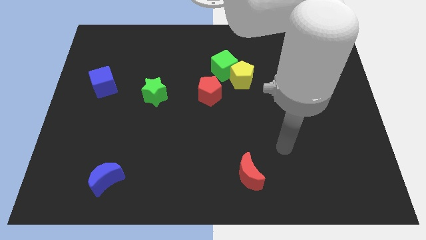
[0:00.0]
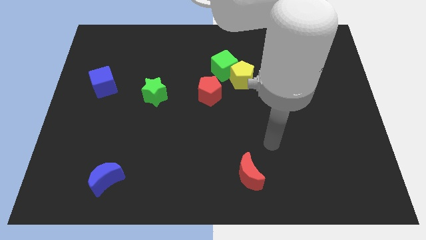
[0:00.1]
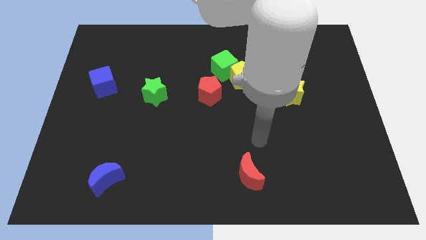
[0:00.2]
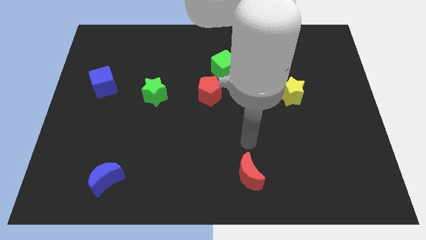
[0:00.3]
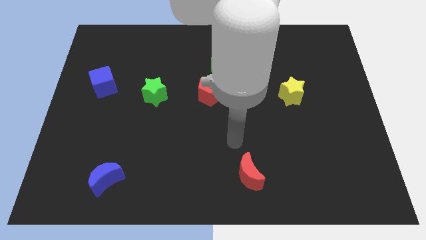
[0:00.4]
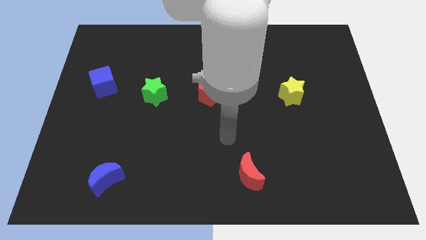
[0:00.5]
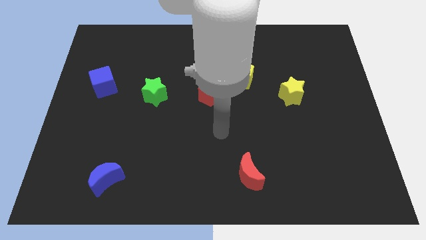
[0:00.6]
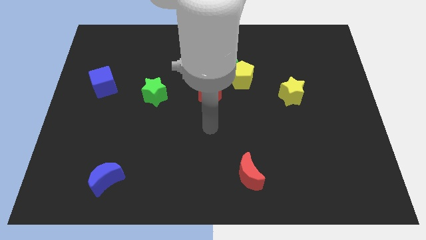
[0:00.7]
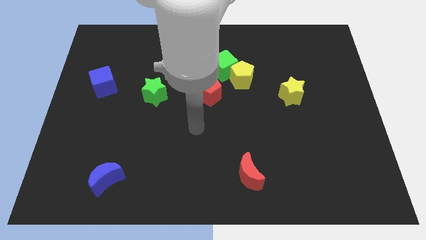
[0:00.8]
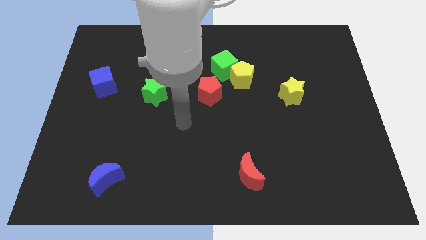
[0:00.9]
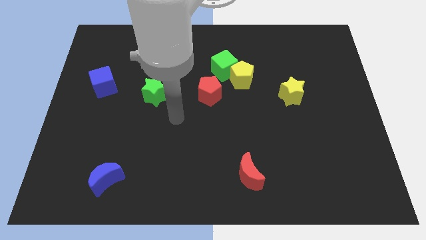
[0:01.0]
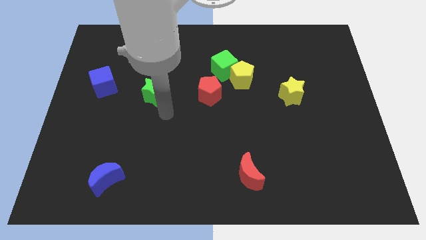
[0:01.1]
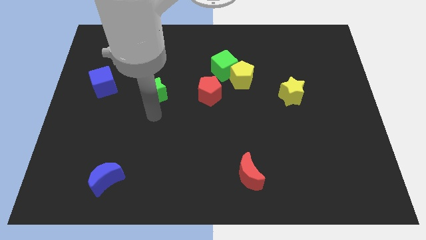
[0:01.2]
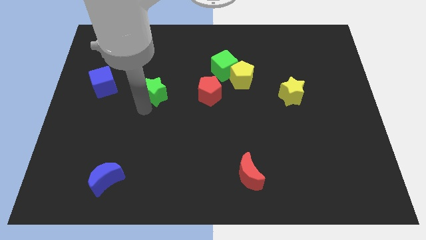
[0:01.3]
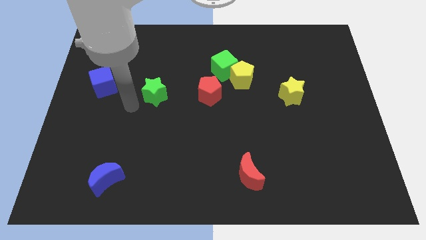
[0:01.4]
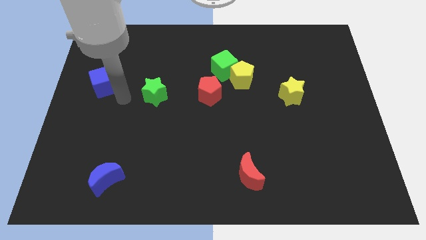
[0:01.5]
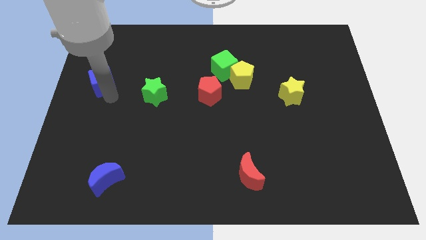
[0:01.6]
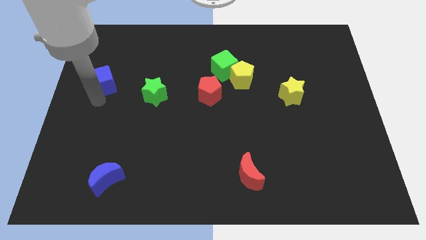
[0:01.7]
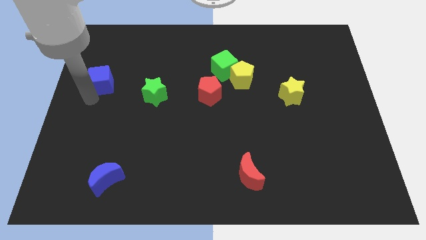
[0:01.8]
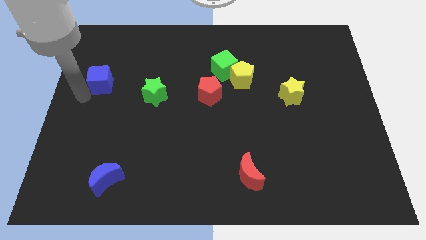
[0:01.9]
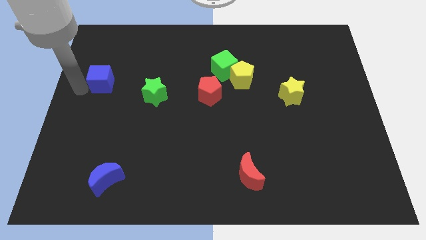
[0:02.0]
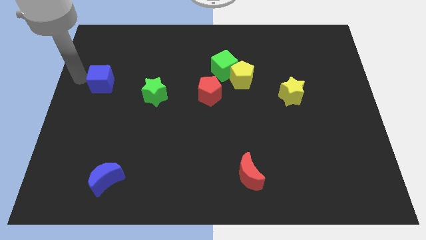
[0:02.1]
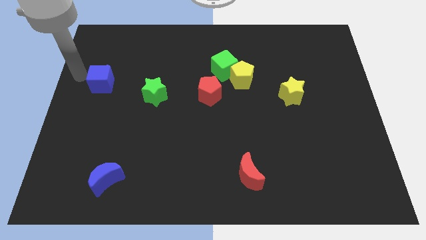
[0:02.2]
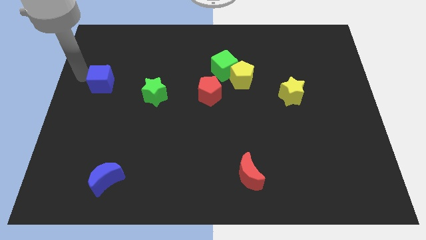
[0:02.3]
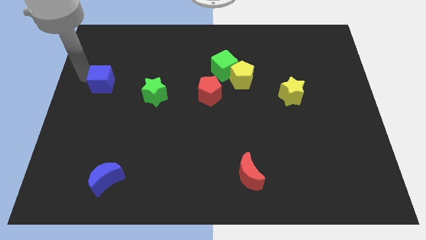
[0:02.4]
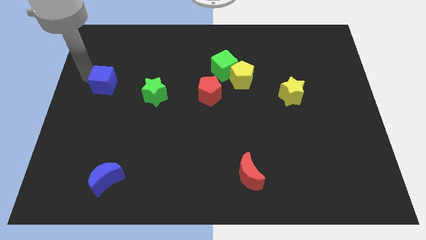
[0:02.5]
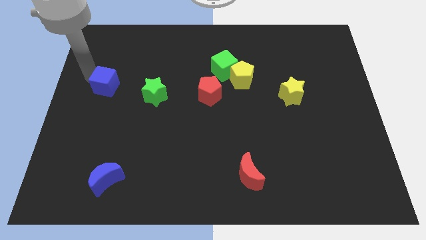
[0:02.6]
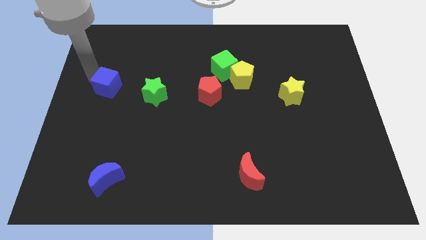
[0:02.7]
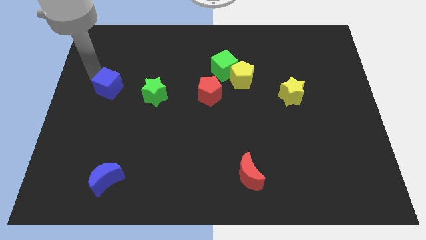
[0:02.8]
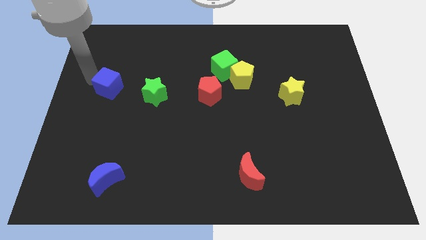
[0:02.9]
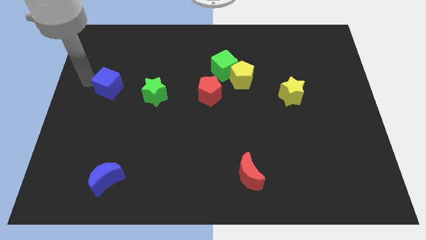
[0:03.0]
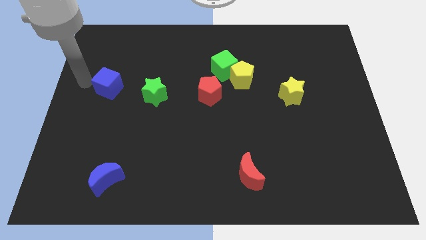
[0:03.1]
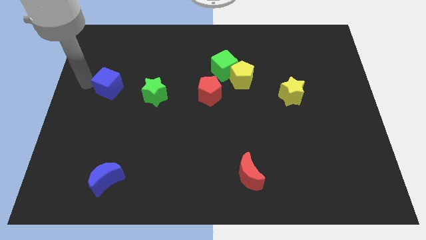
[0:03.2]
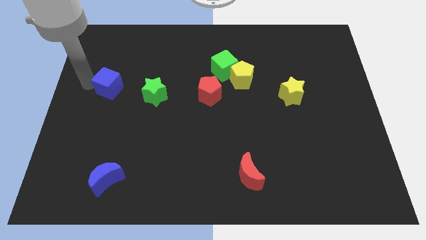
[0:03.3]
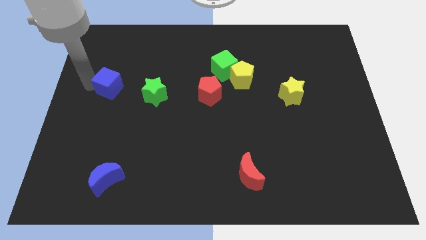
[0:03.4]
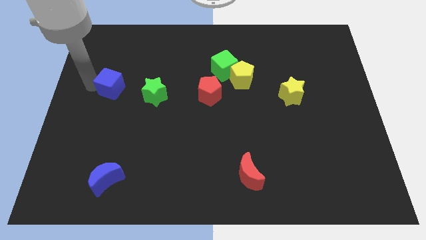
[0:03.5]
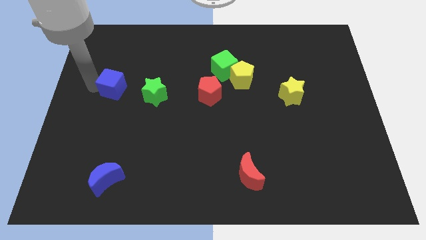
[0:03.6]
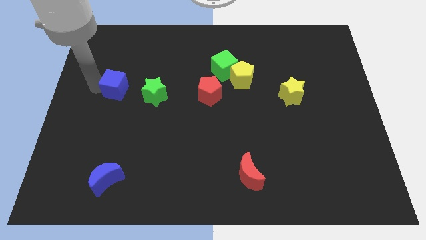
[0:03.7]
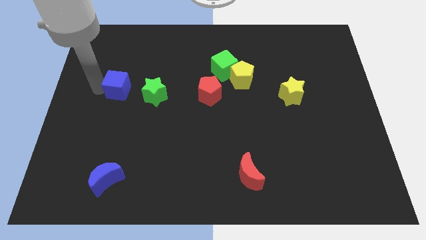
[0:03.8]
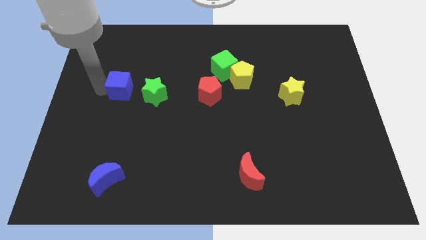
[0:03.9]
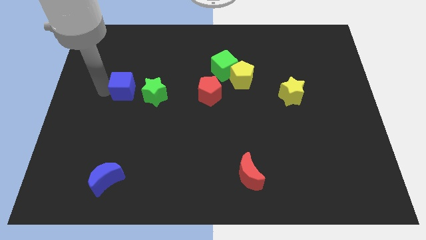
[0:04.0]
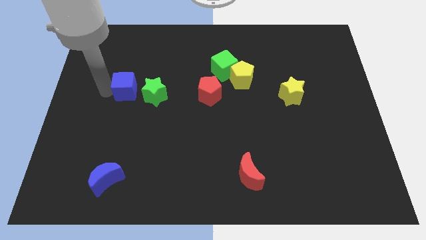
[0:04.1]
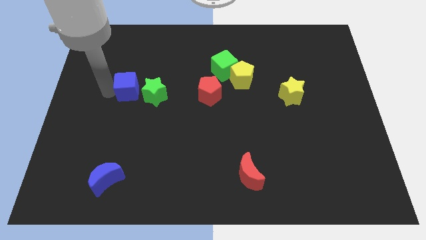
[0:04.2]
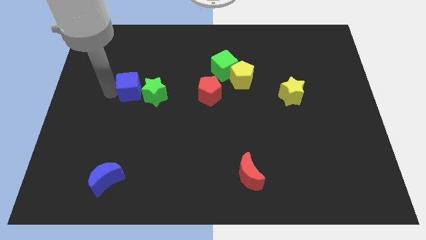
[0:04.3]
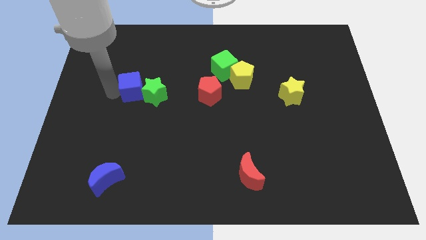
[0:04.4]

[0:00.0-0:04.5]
slide the blue cube to the right somewhat

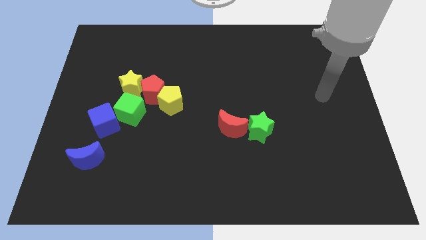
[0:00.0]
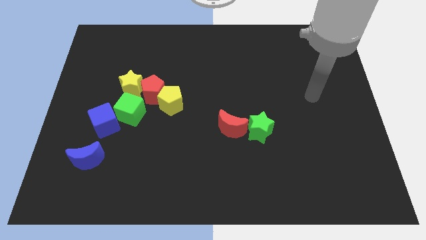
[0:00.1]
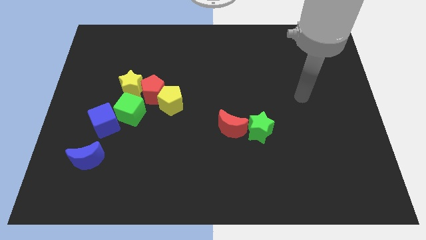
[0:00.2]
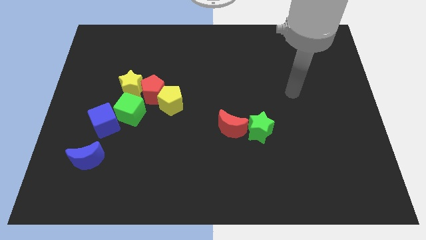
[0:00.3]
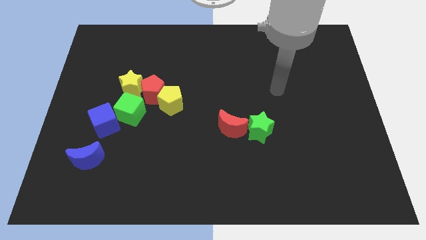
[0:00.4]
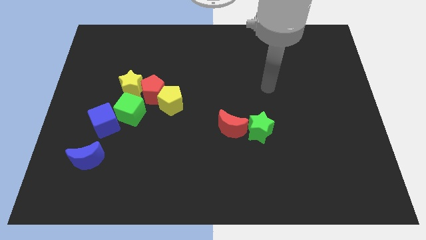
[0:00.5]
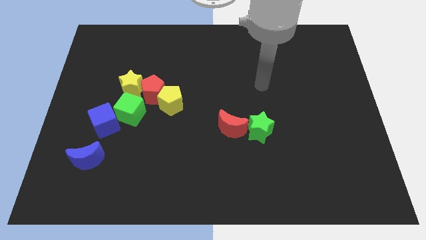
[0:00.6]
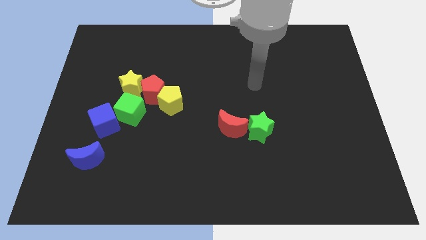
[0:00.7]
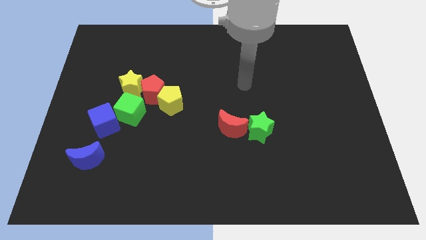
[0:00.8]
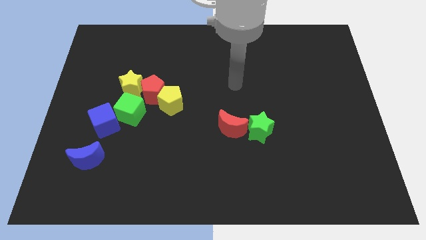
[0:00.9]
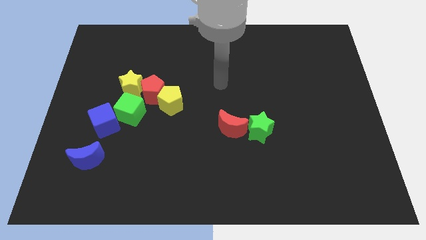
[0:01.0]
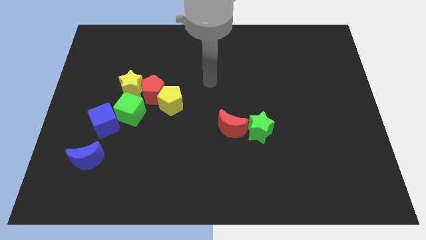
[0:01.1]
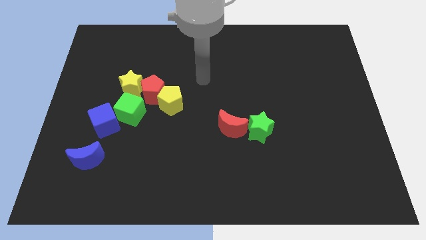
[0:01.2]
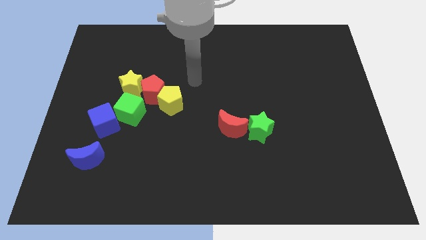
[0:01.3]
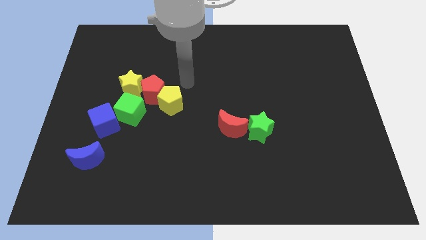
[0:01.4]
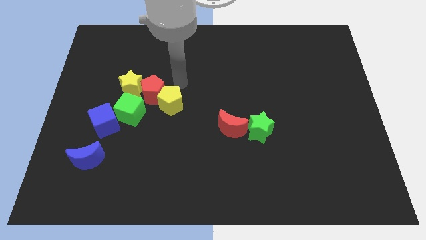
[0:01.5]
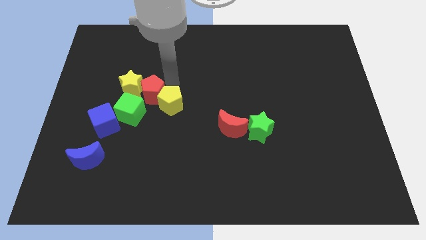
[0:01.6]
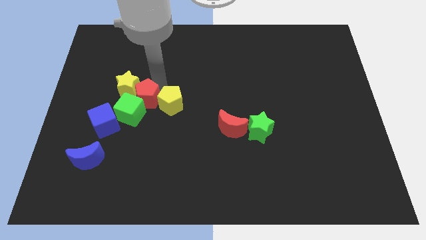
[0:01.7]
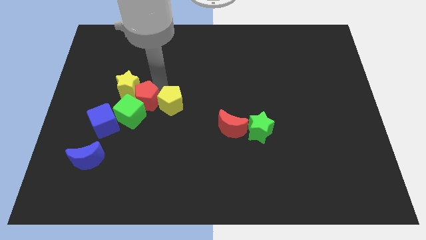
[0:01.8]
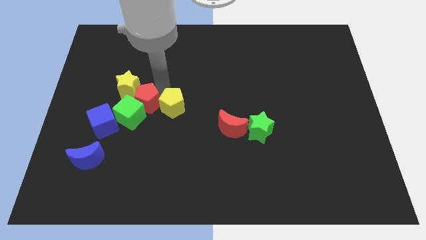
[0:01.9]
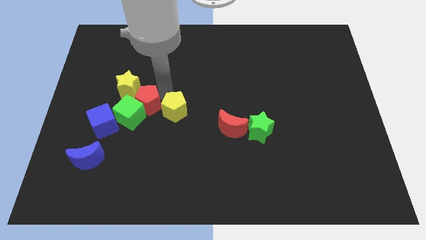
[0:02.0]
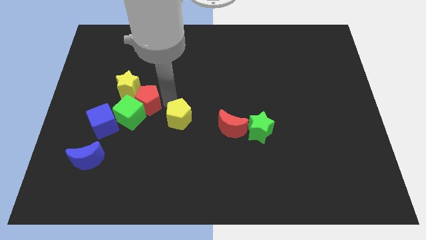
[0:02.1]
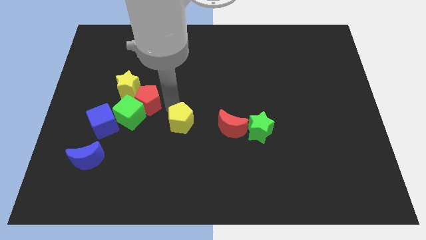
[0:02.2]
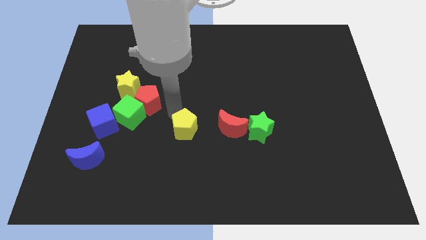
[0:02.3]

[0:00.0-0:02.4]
push the yellow pentagon somewhat downwards and then right

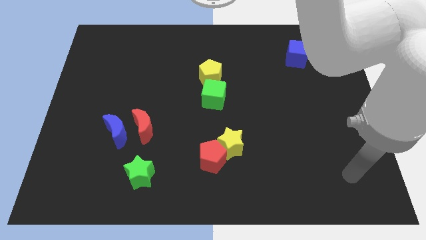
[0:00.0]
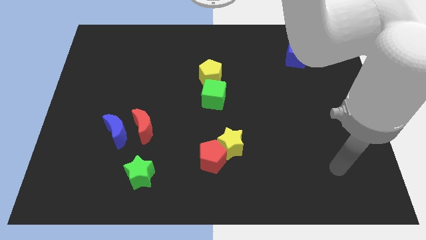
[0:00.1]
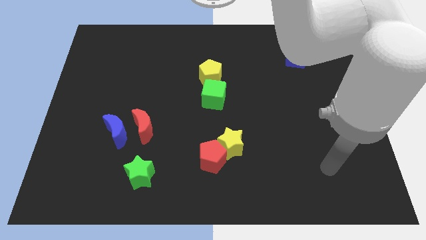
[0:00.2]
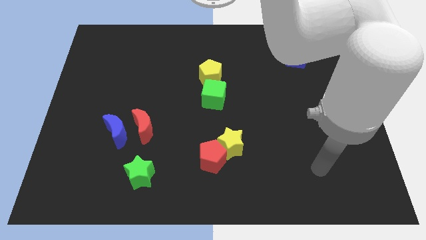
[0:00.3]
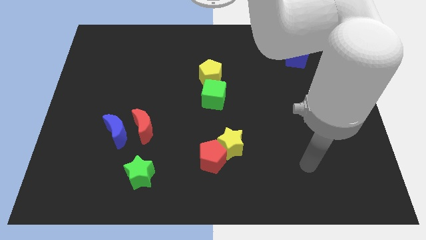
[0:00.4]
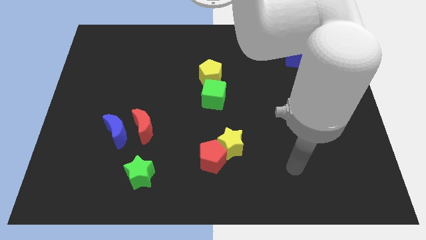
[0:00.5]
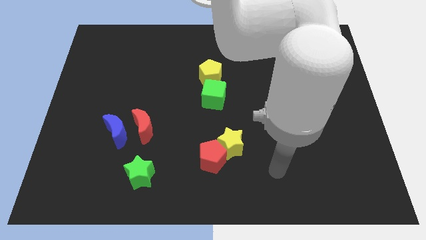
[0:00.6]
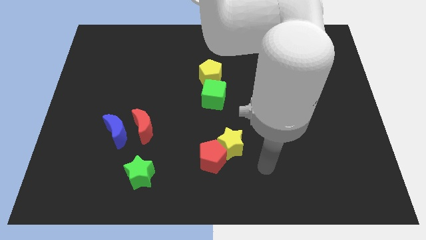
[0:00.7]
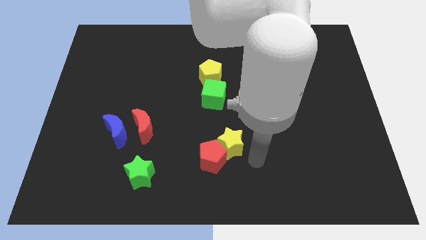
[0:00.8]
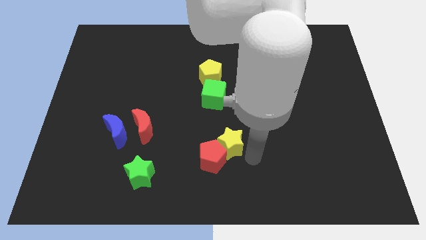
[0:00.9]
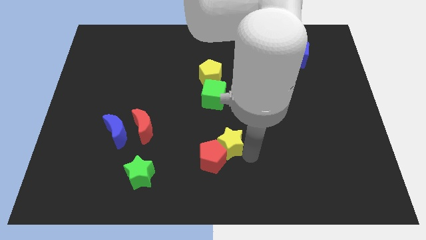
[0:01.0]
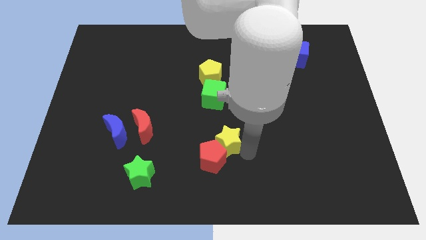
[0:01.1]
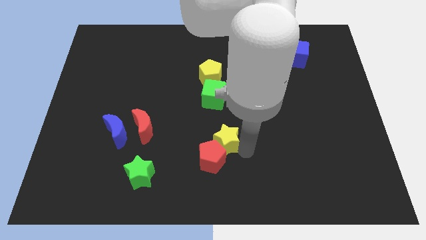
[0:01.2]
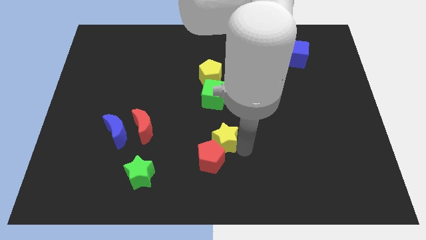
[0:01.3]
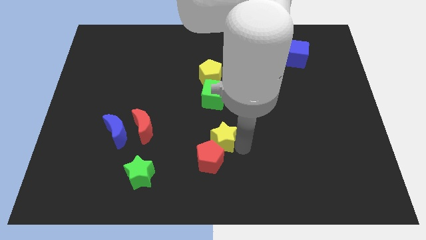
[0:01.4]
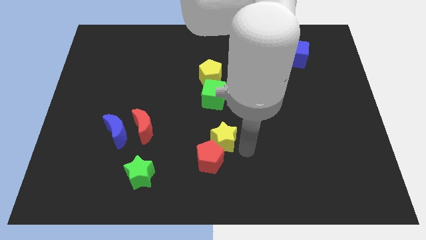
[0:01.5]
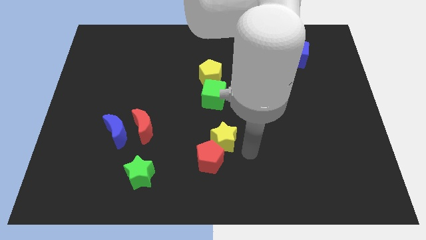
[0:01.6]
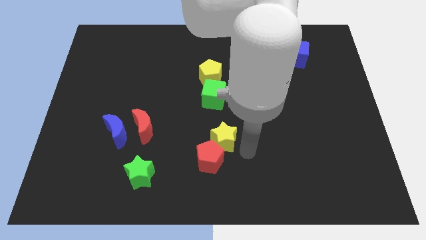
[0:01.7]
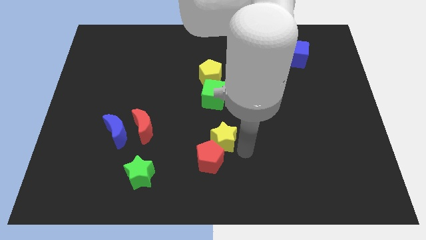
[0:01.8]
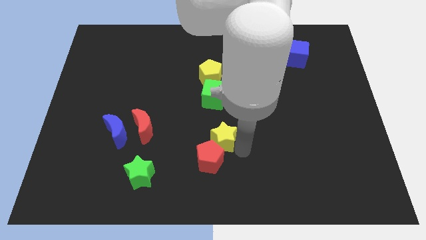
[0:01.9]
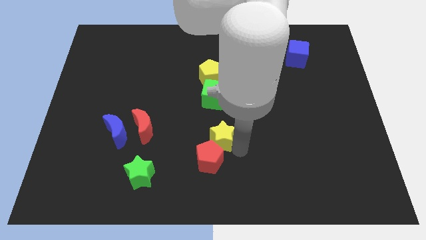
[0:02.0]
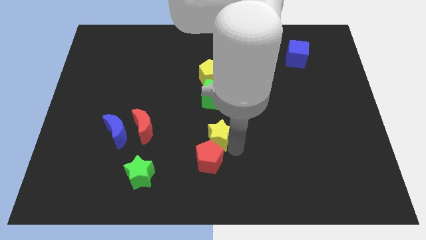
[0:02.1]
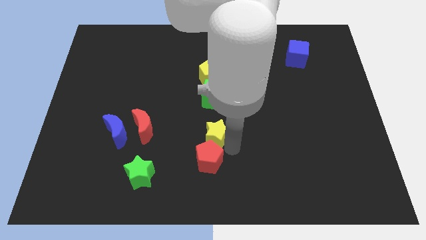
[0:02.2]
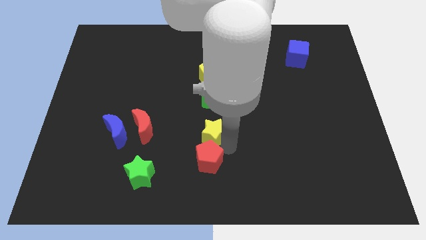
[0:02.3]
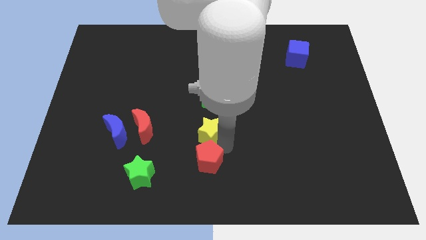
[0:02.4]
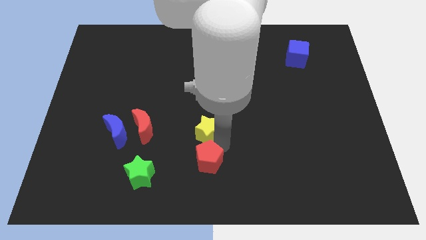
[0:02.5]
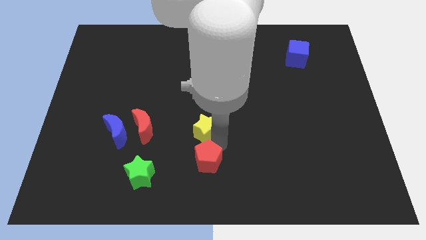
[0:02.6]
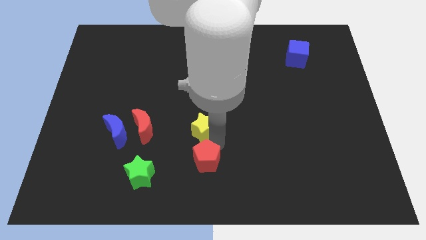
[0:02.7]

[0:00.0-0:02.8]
slightly push the yellow star up and left diagonally
